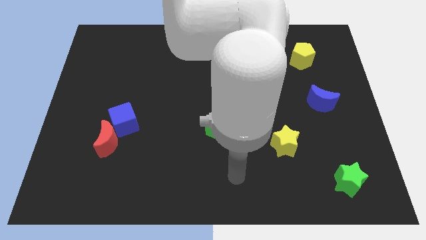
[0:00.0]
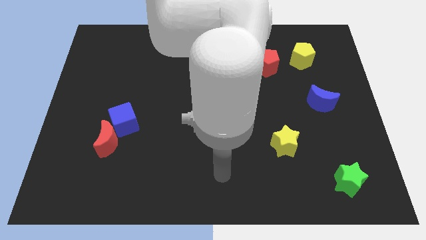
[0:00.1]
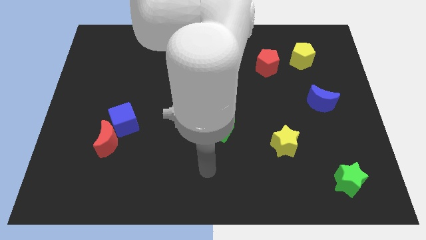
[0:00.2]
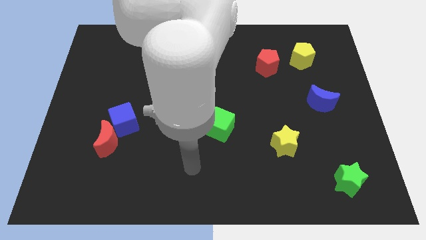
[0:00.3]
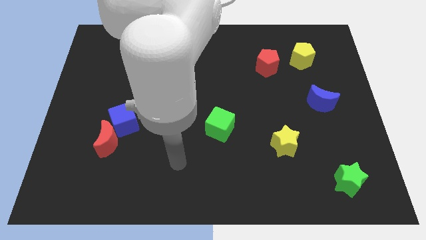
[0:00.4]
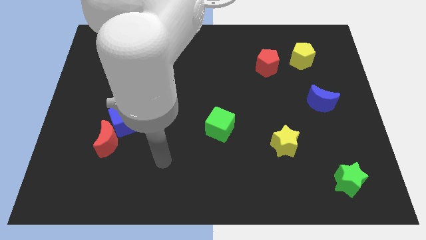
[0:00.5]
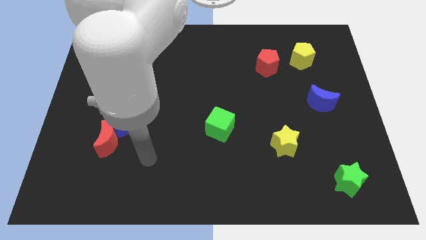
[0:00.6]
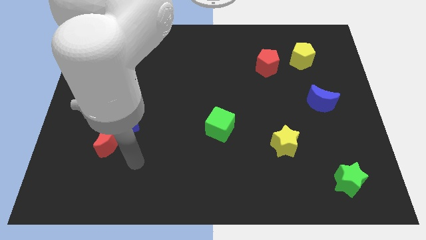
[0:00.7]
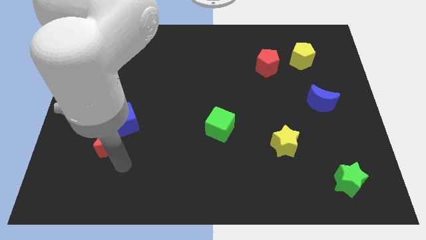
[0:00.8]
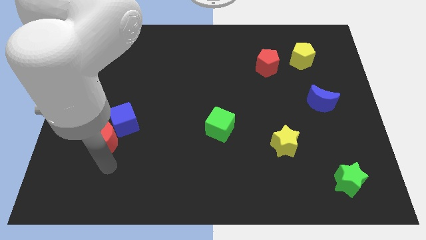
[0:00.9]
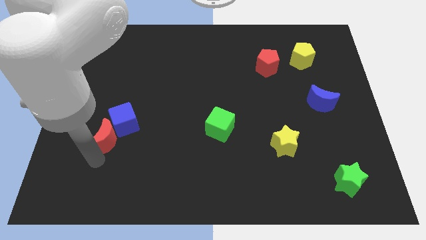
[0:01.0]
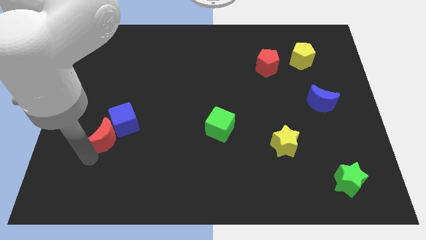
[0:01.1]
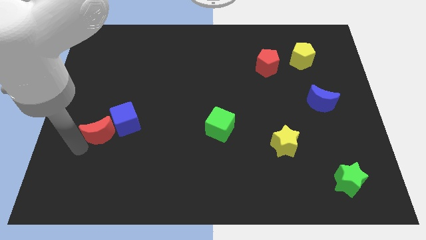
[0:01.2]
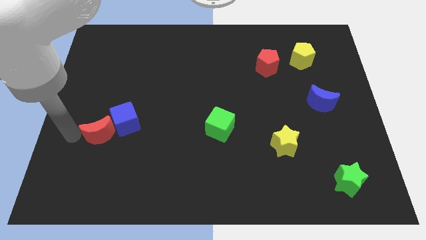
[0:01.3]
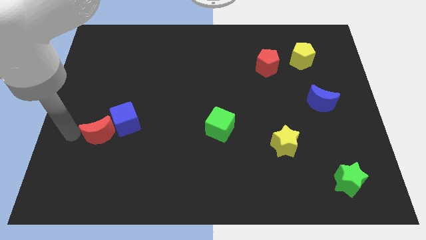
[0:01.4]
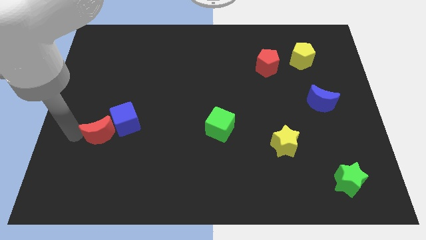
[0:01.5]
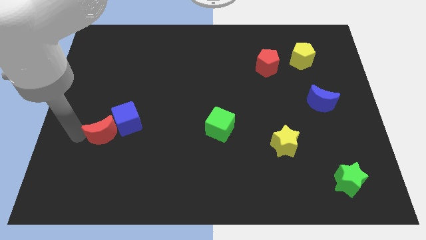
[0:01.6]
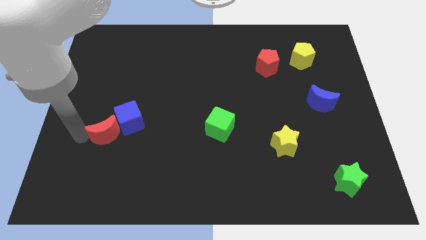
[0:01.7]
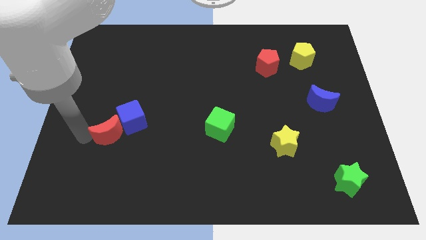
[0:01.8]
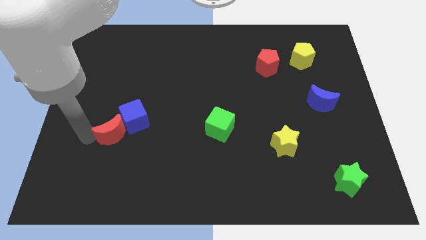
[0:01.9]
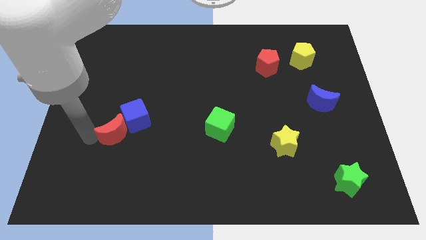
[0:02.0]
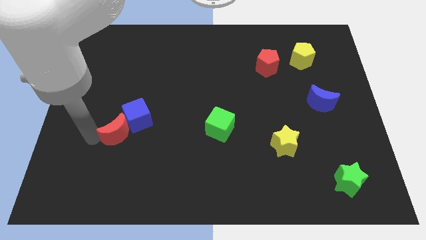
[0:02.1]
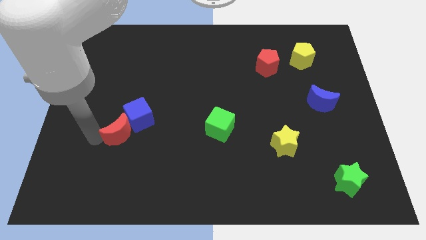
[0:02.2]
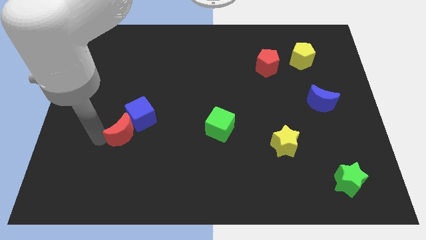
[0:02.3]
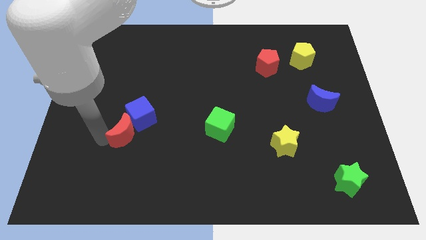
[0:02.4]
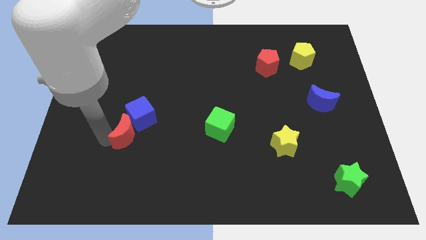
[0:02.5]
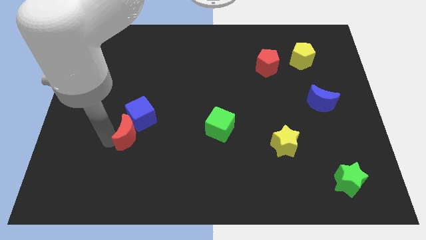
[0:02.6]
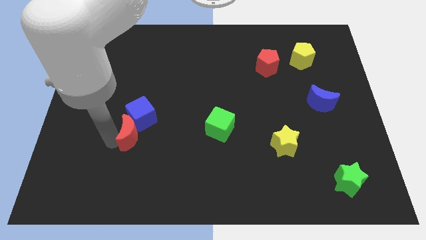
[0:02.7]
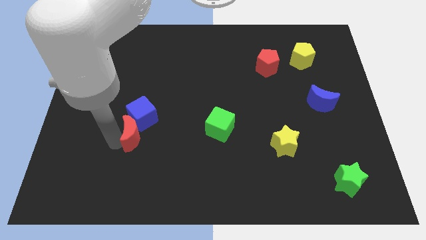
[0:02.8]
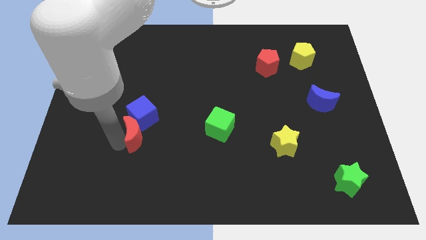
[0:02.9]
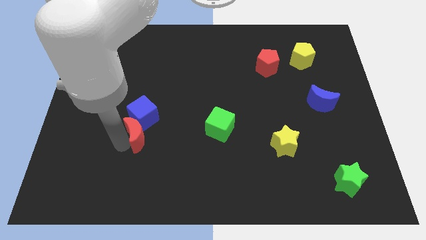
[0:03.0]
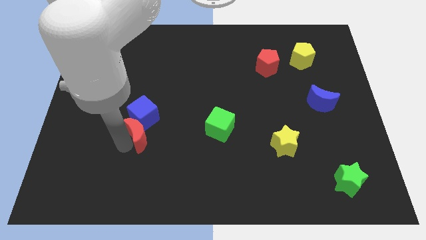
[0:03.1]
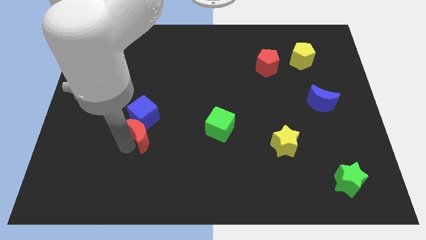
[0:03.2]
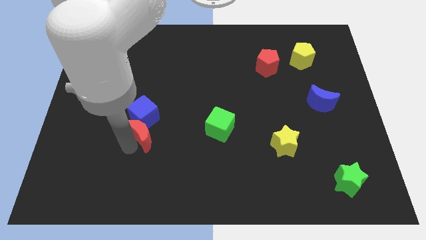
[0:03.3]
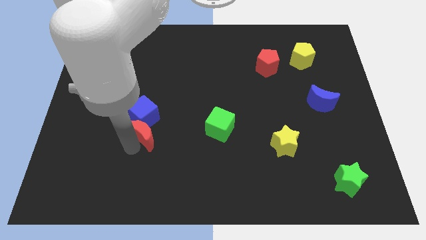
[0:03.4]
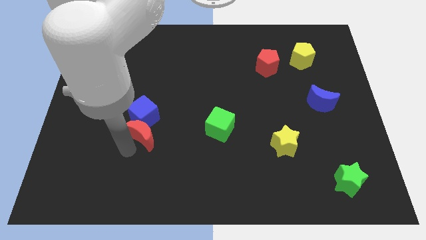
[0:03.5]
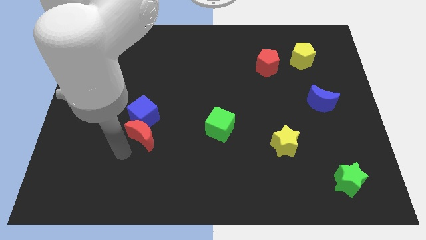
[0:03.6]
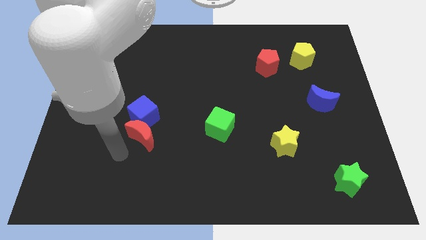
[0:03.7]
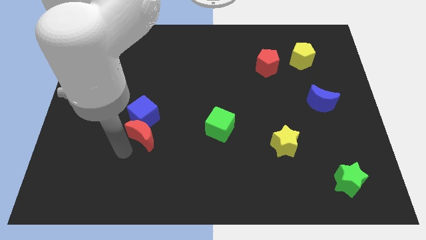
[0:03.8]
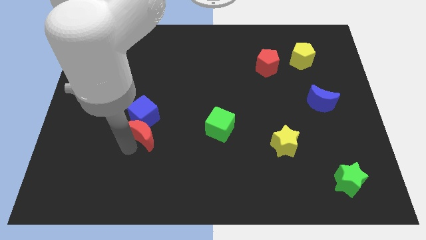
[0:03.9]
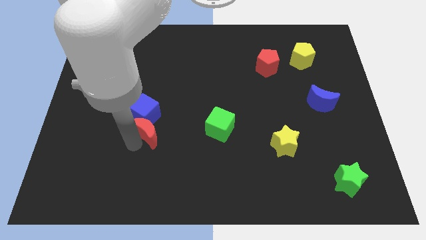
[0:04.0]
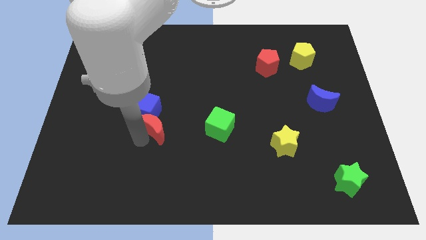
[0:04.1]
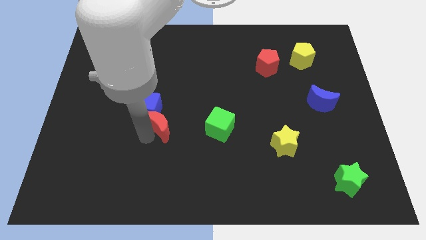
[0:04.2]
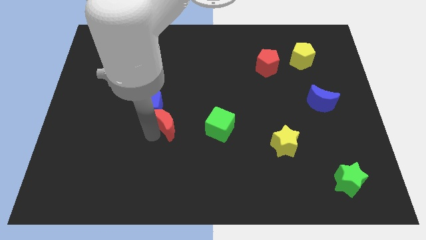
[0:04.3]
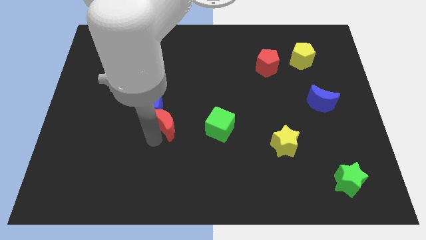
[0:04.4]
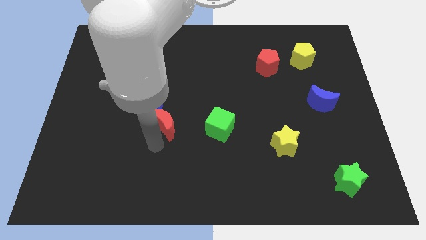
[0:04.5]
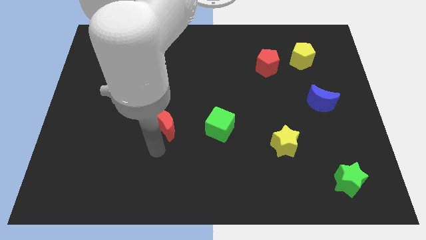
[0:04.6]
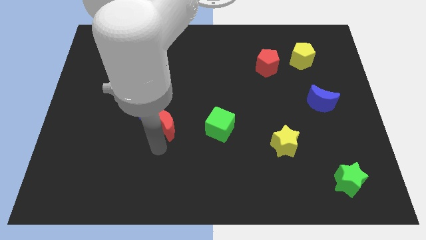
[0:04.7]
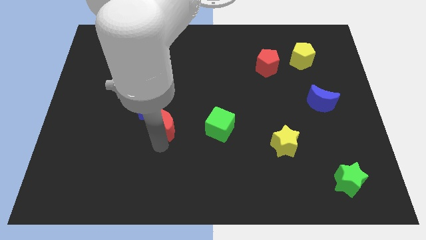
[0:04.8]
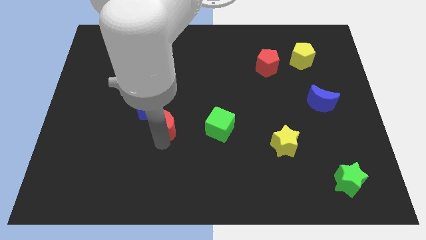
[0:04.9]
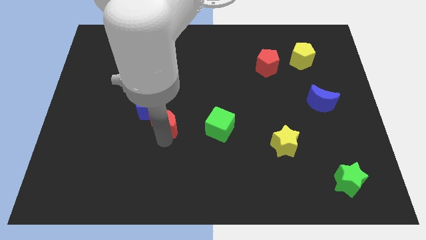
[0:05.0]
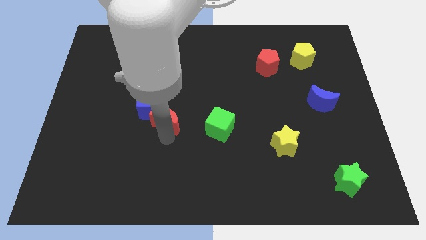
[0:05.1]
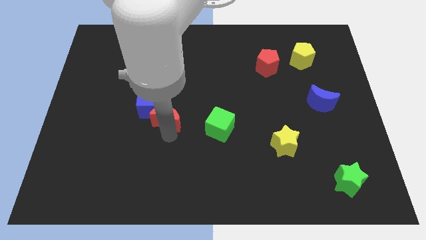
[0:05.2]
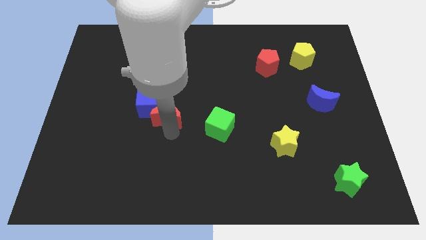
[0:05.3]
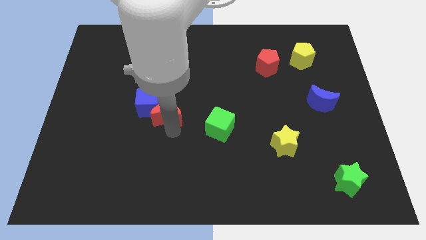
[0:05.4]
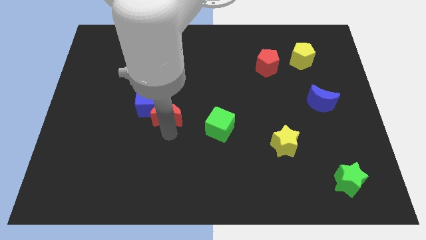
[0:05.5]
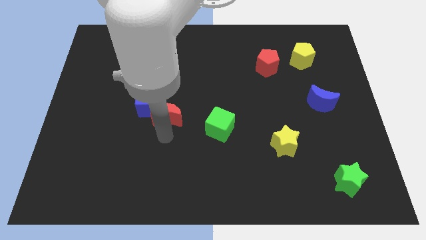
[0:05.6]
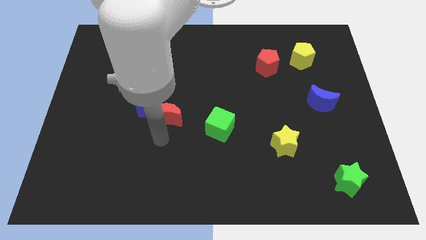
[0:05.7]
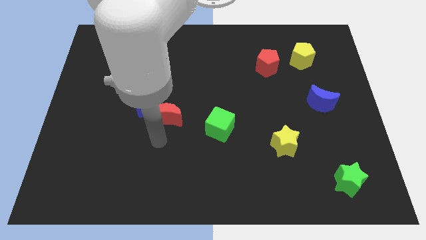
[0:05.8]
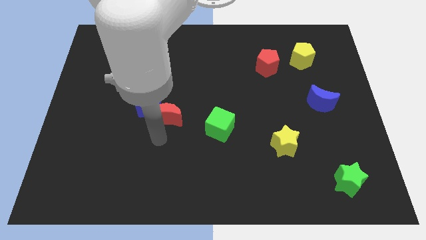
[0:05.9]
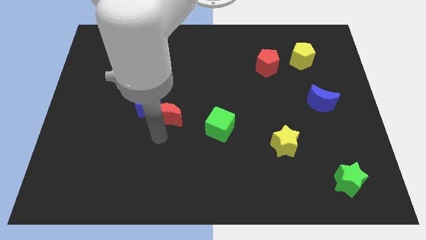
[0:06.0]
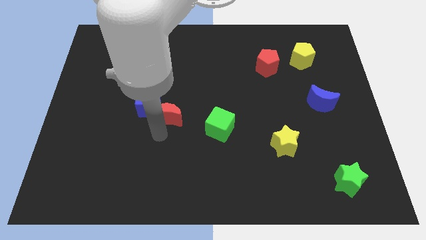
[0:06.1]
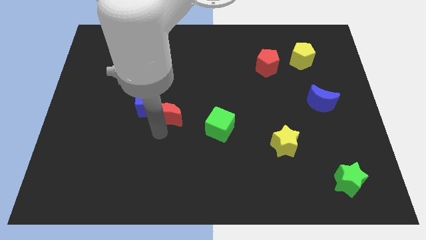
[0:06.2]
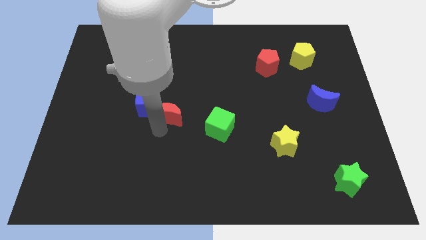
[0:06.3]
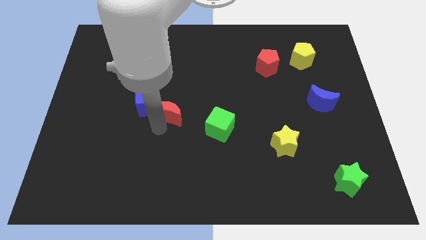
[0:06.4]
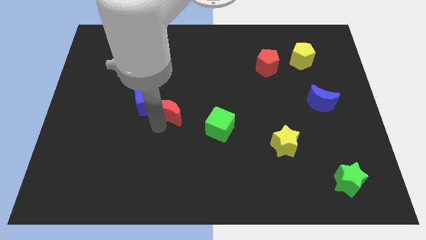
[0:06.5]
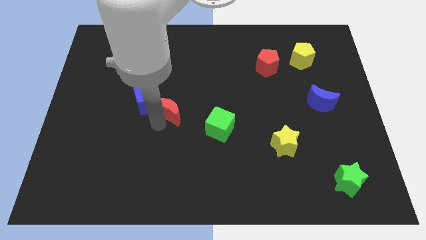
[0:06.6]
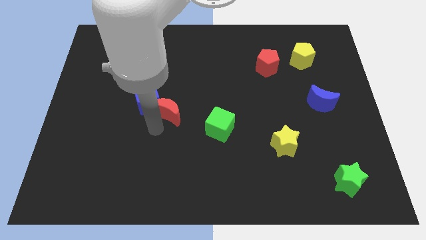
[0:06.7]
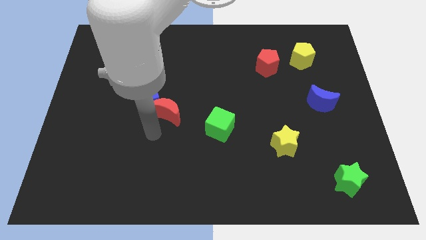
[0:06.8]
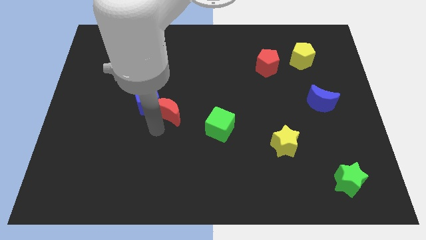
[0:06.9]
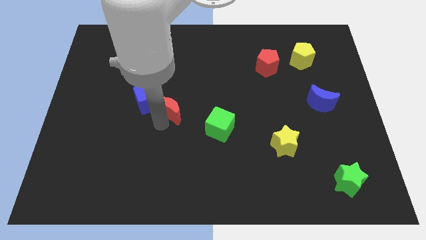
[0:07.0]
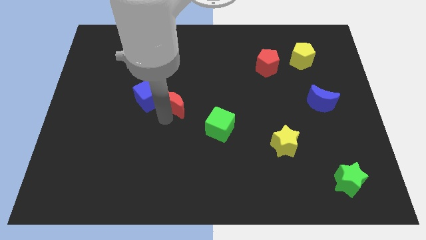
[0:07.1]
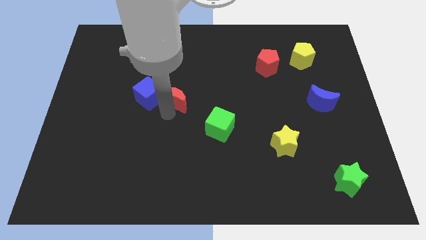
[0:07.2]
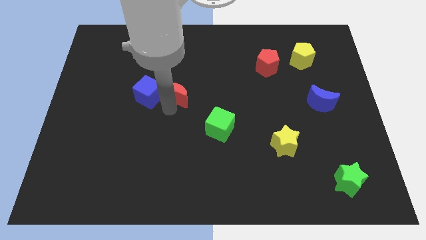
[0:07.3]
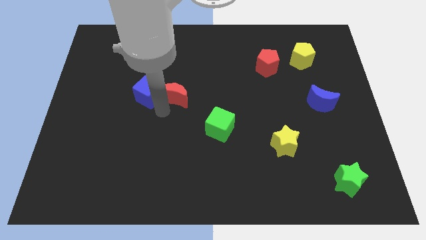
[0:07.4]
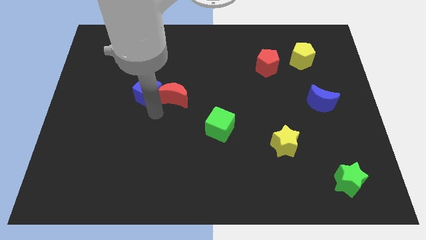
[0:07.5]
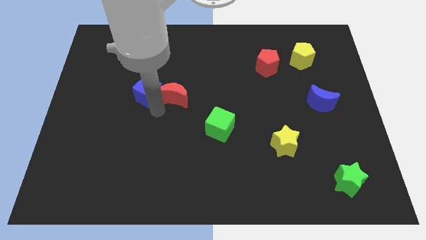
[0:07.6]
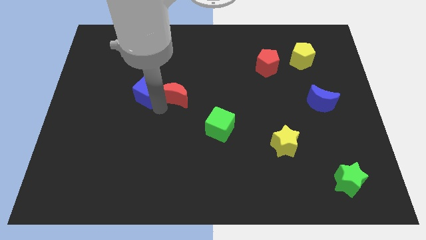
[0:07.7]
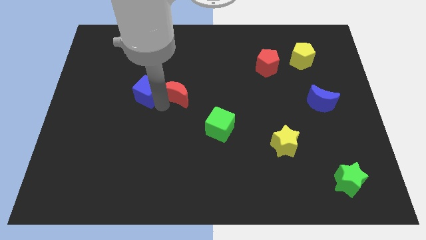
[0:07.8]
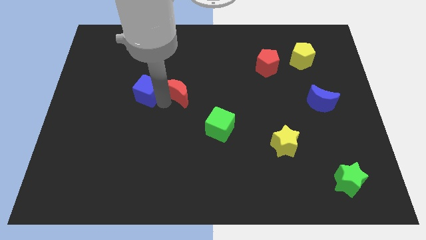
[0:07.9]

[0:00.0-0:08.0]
slide the red moon upwards and right diagonally

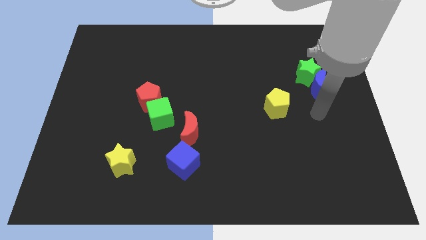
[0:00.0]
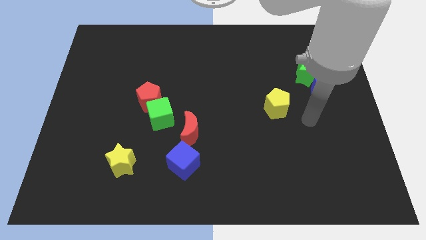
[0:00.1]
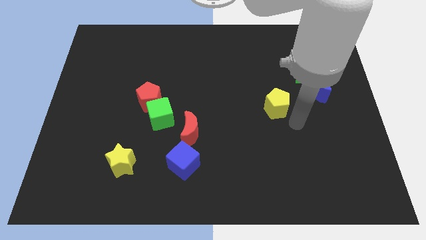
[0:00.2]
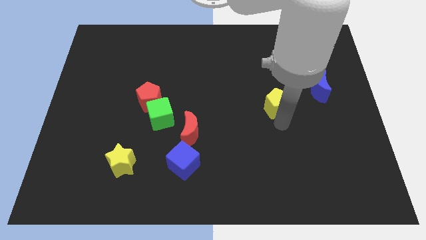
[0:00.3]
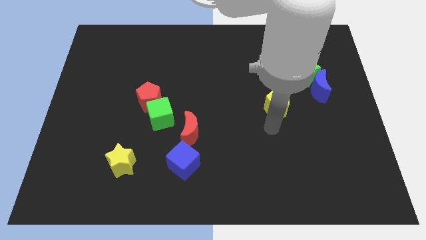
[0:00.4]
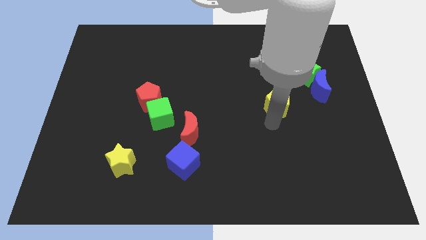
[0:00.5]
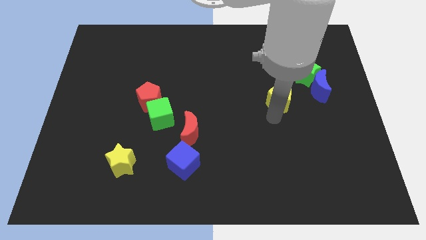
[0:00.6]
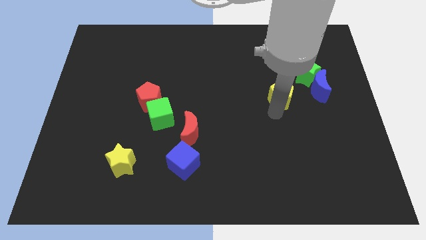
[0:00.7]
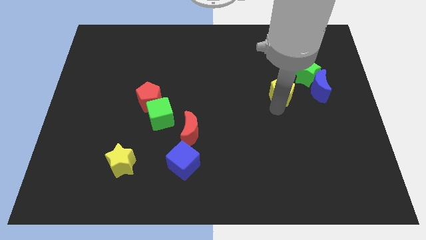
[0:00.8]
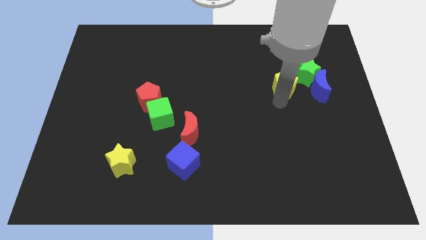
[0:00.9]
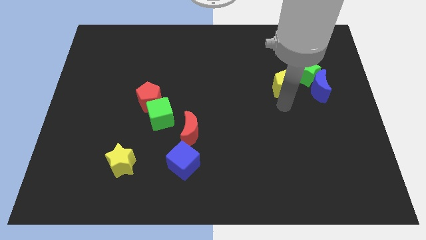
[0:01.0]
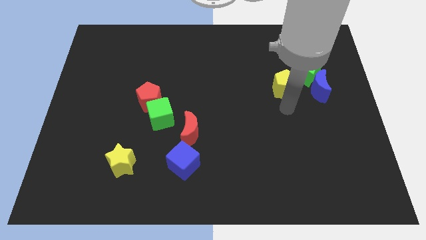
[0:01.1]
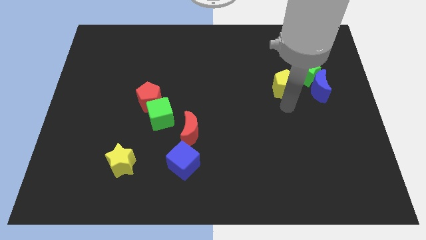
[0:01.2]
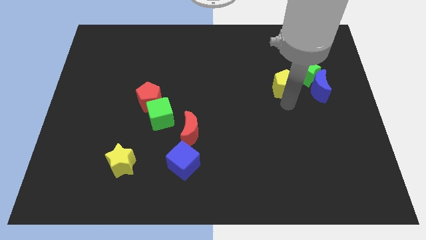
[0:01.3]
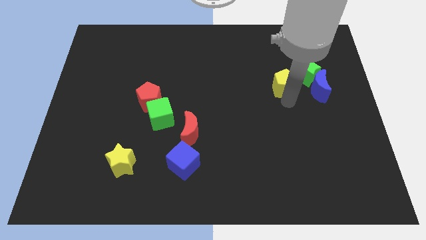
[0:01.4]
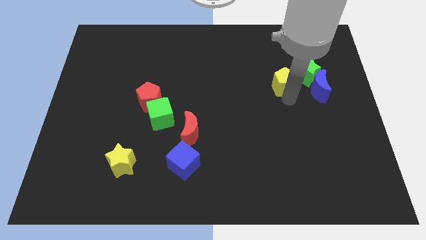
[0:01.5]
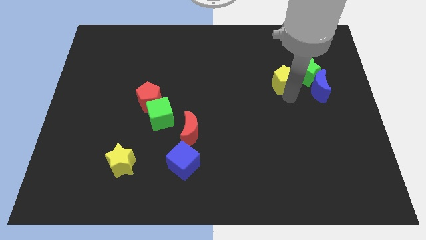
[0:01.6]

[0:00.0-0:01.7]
slide the yellow pentagon a bit upwards and right diagonally
